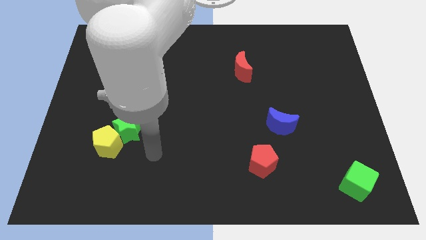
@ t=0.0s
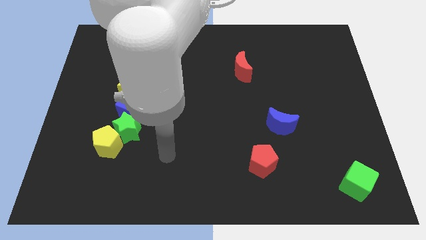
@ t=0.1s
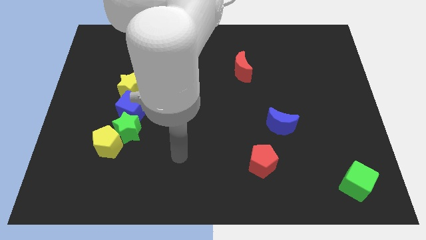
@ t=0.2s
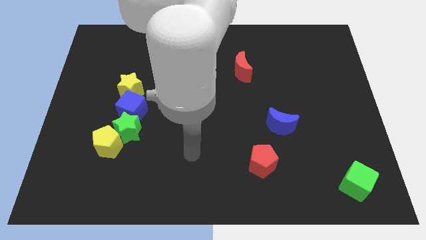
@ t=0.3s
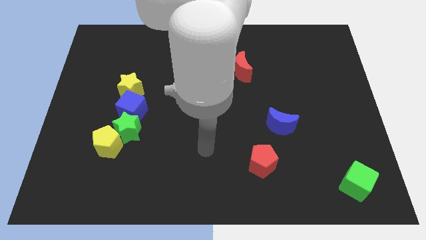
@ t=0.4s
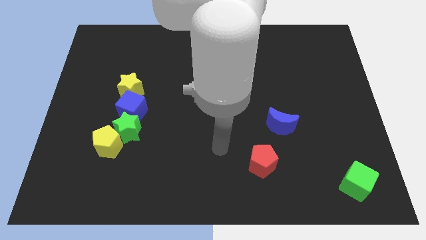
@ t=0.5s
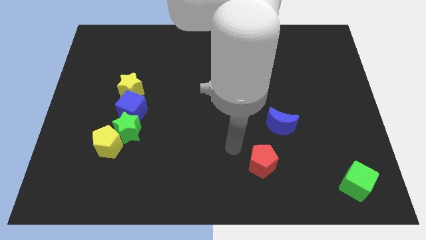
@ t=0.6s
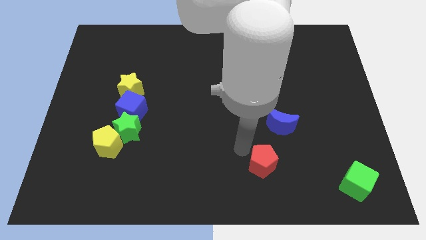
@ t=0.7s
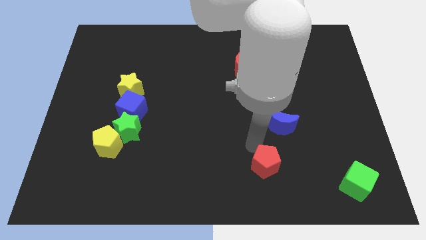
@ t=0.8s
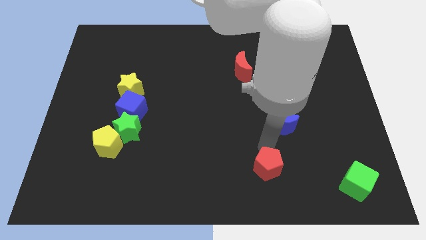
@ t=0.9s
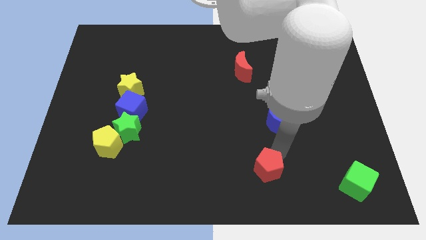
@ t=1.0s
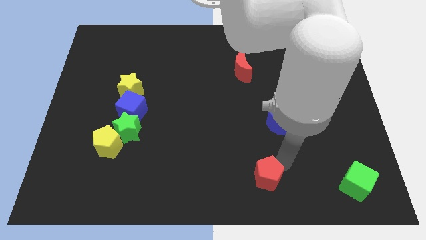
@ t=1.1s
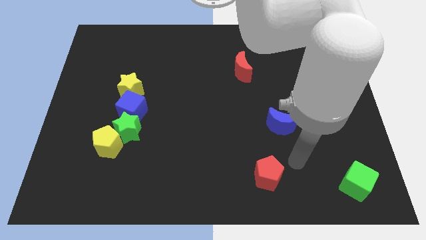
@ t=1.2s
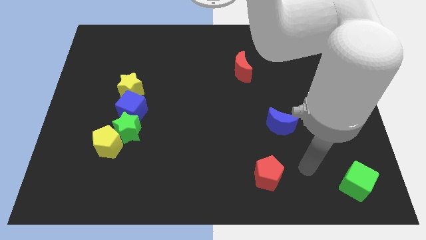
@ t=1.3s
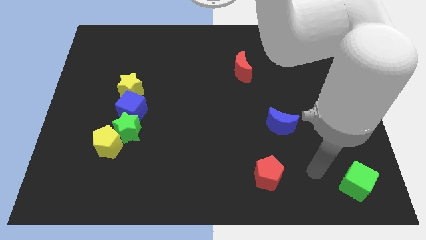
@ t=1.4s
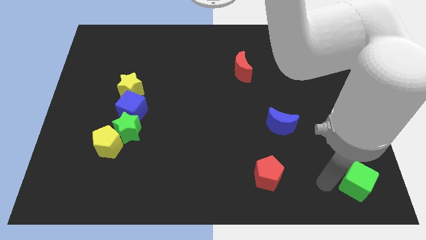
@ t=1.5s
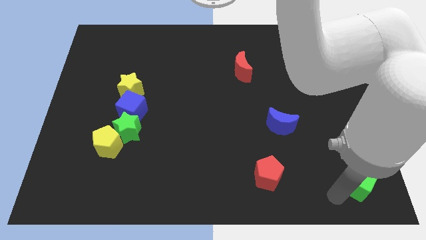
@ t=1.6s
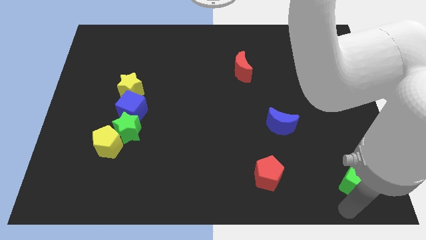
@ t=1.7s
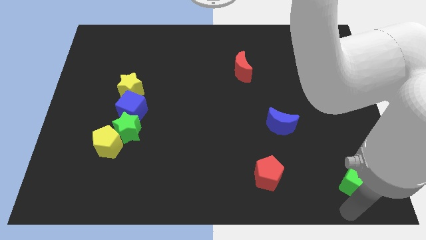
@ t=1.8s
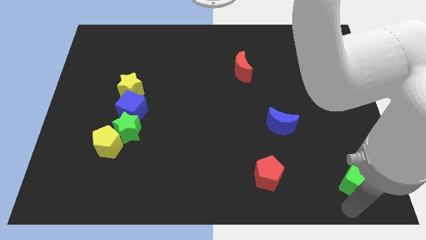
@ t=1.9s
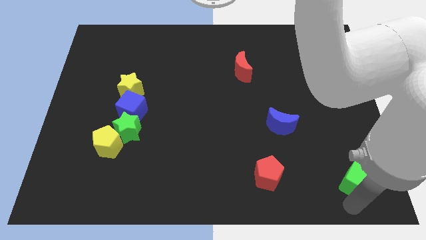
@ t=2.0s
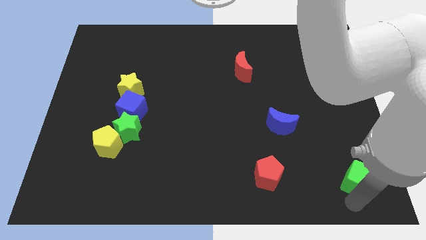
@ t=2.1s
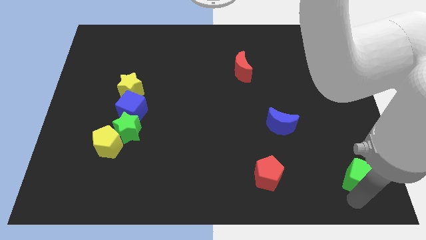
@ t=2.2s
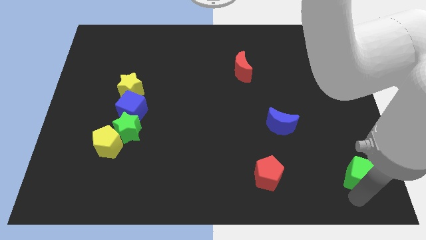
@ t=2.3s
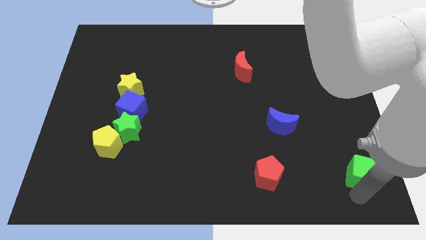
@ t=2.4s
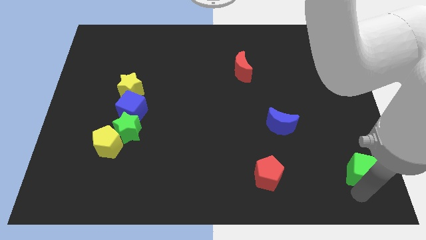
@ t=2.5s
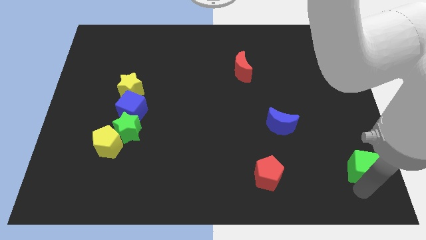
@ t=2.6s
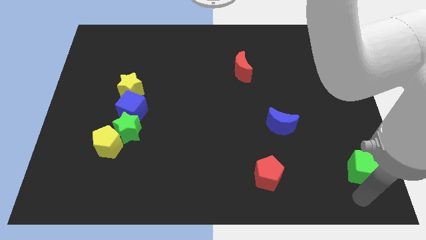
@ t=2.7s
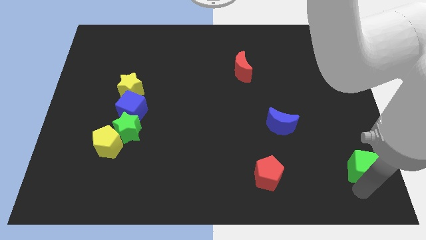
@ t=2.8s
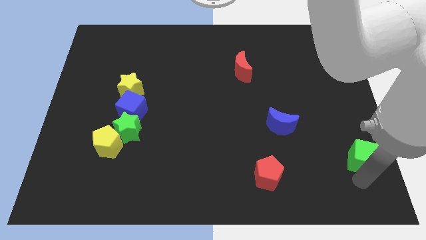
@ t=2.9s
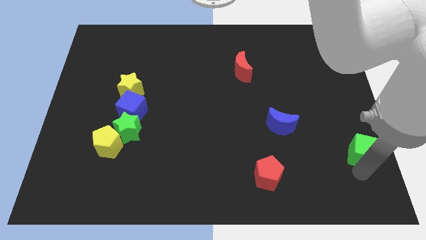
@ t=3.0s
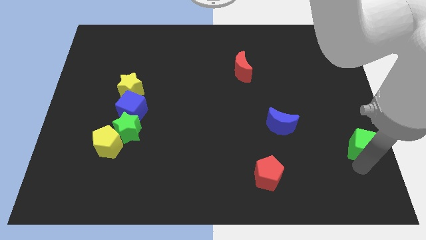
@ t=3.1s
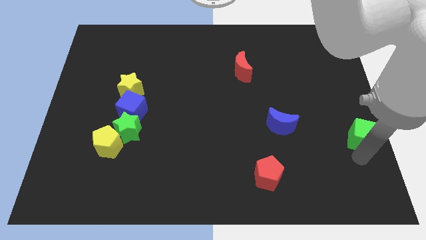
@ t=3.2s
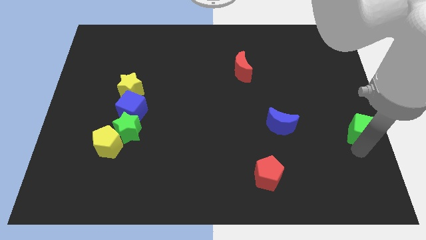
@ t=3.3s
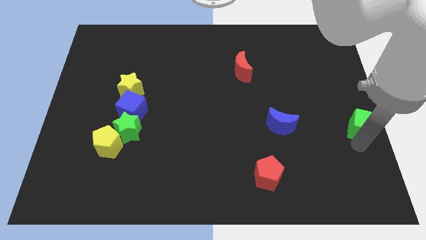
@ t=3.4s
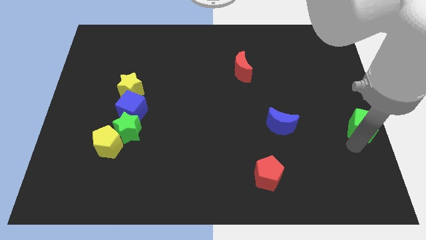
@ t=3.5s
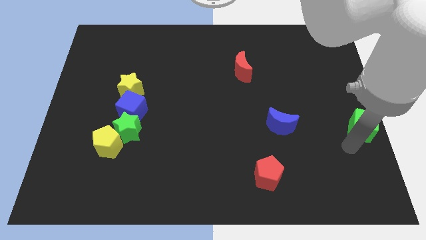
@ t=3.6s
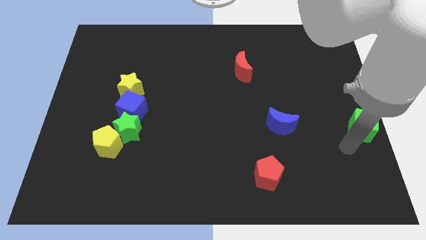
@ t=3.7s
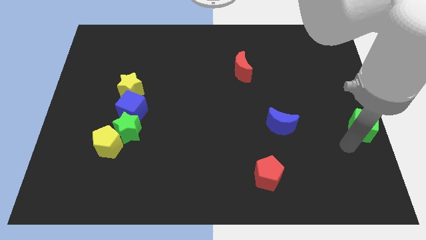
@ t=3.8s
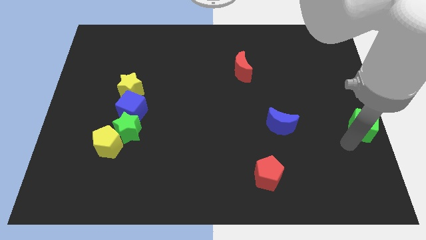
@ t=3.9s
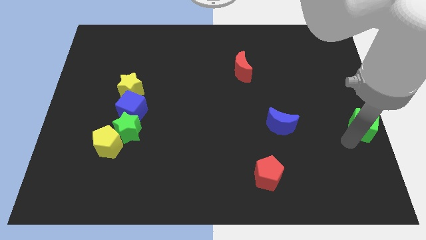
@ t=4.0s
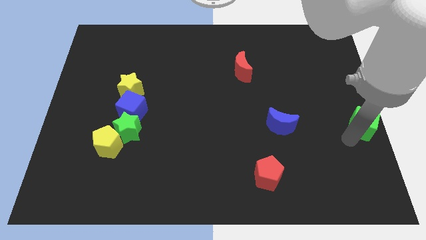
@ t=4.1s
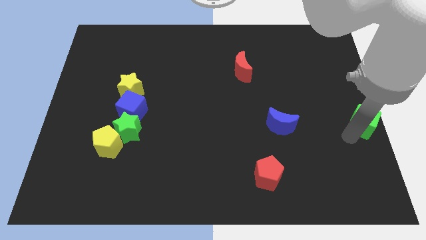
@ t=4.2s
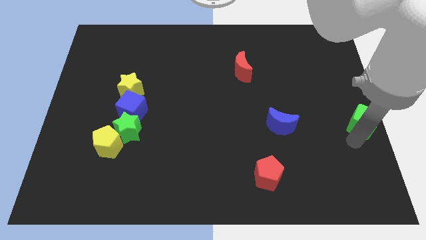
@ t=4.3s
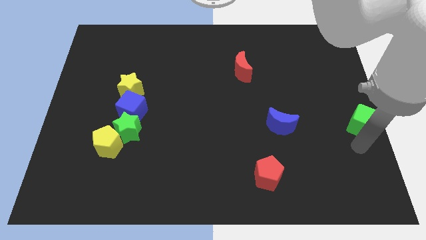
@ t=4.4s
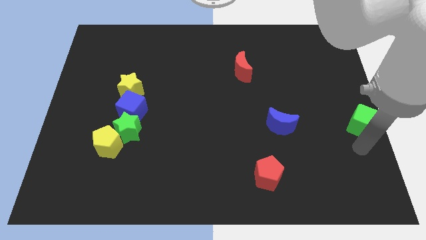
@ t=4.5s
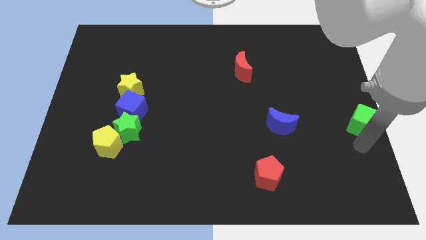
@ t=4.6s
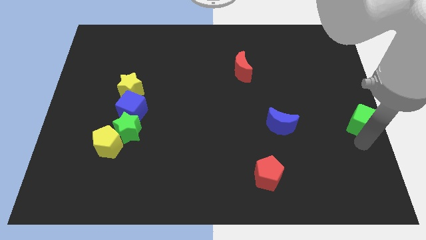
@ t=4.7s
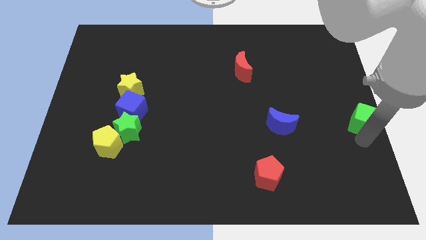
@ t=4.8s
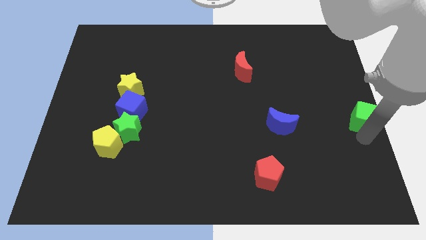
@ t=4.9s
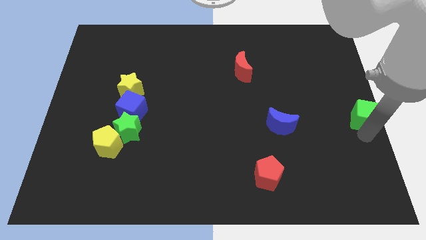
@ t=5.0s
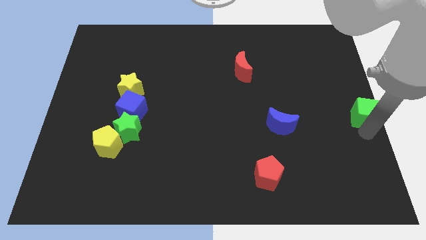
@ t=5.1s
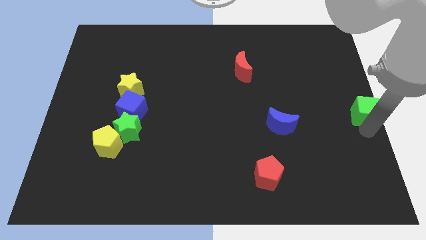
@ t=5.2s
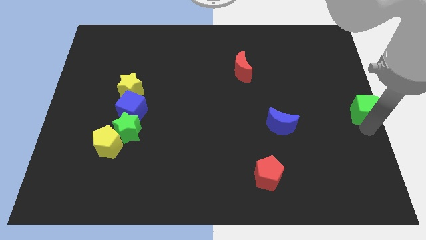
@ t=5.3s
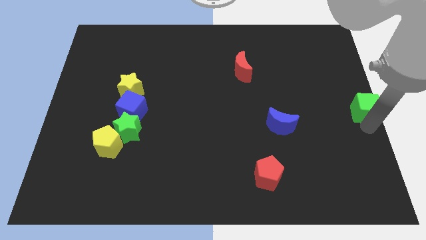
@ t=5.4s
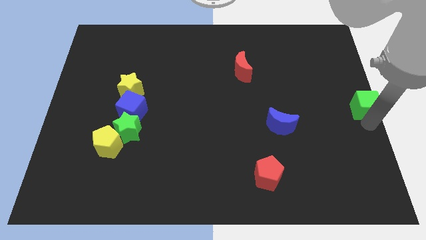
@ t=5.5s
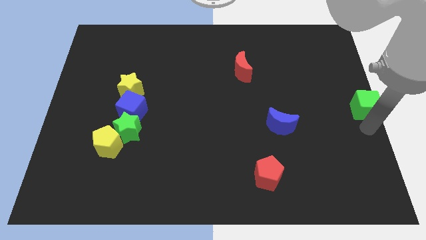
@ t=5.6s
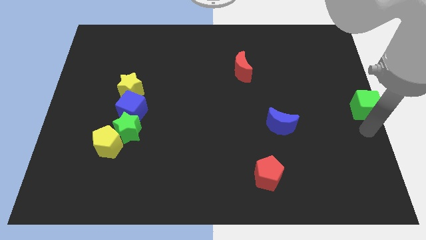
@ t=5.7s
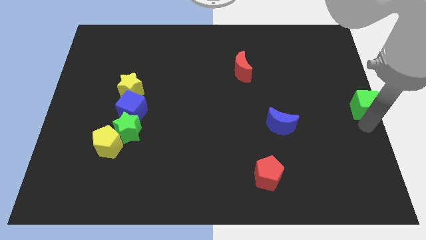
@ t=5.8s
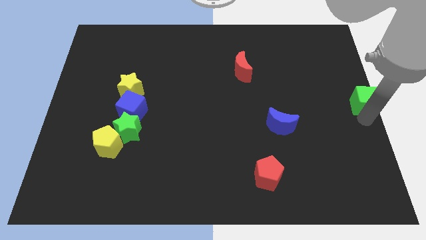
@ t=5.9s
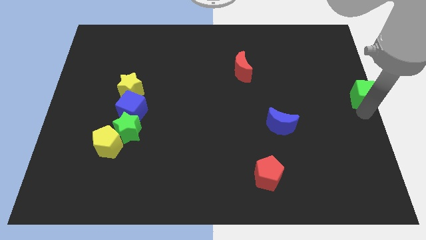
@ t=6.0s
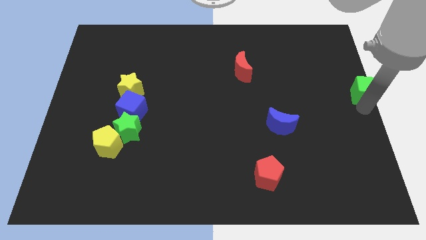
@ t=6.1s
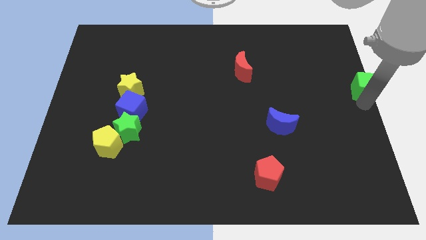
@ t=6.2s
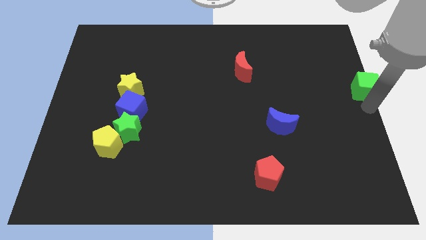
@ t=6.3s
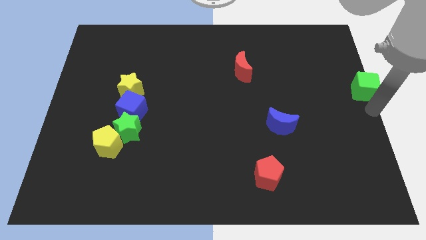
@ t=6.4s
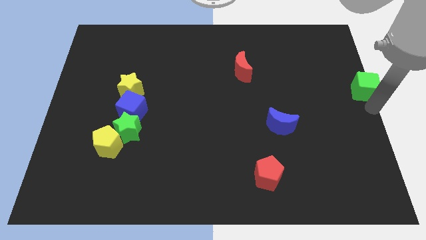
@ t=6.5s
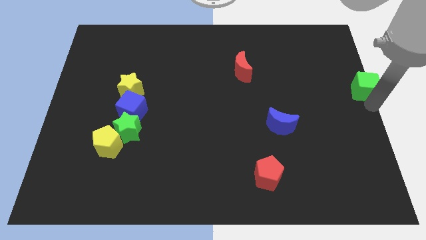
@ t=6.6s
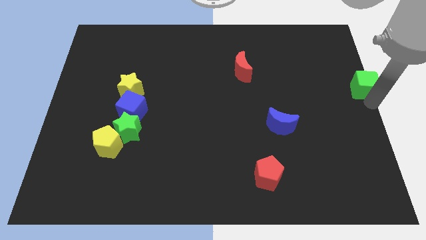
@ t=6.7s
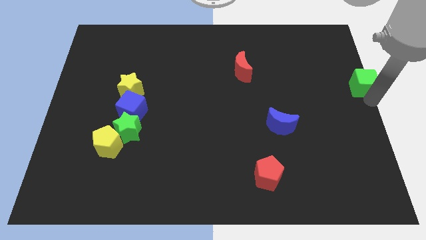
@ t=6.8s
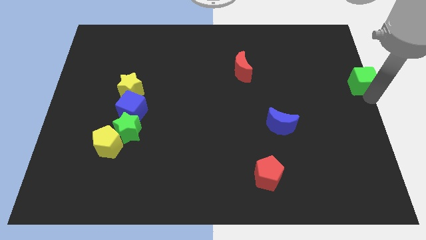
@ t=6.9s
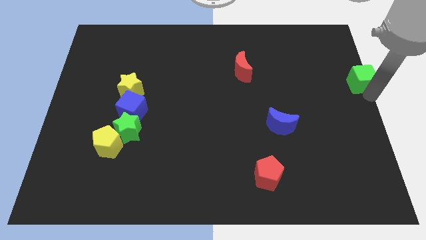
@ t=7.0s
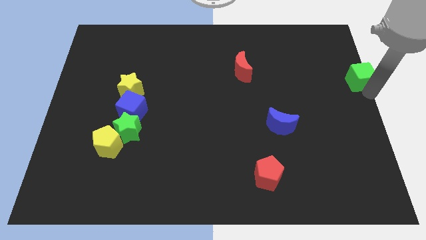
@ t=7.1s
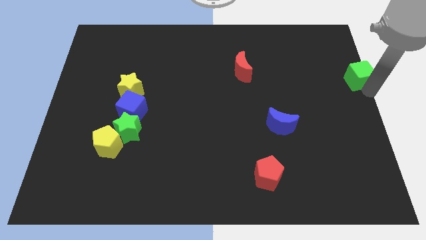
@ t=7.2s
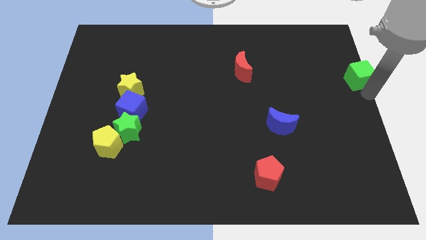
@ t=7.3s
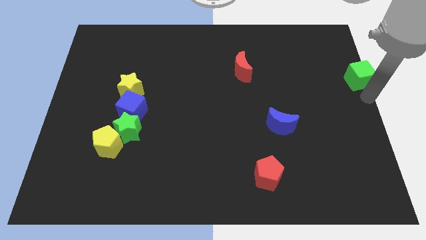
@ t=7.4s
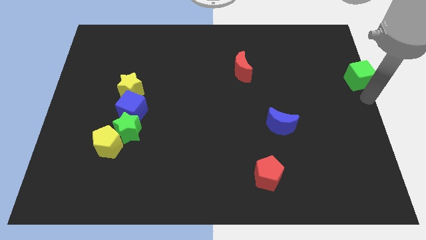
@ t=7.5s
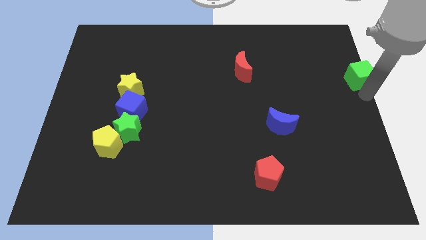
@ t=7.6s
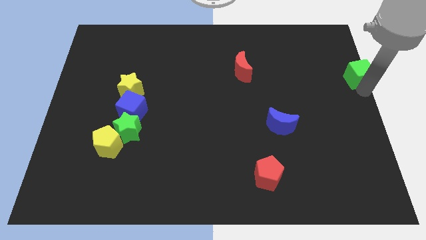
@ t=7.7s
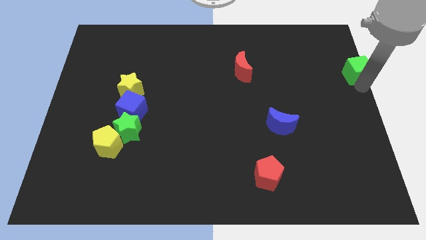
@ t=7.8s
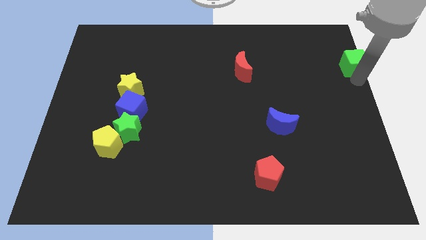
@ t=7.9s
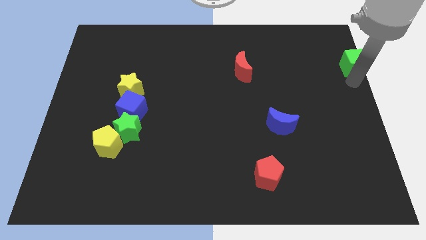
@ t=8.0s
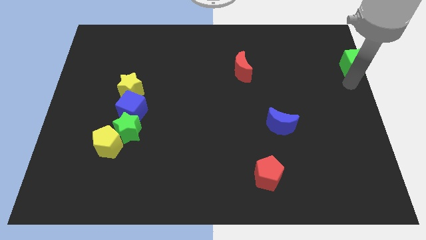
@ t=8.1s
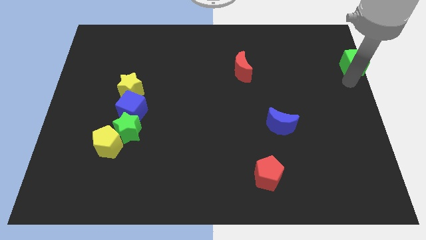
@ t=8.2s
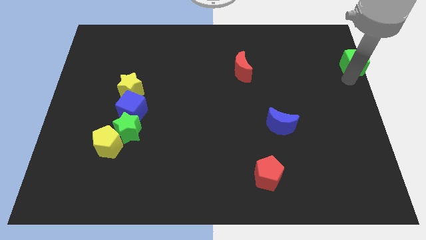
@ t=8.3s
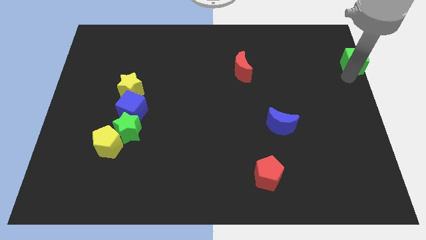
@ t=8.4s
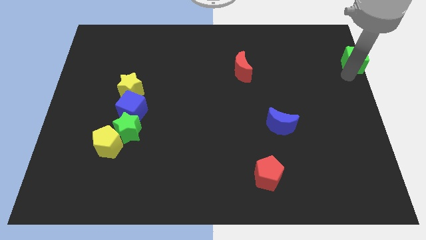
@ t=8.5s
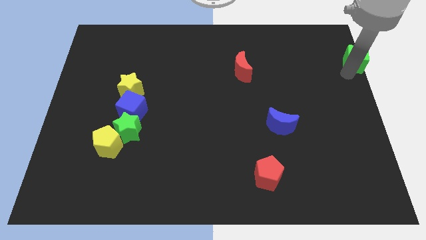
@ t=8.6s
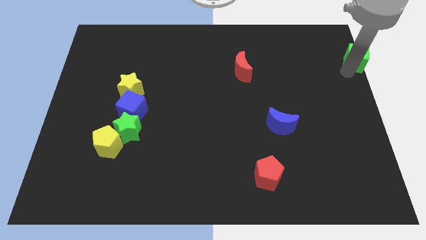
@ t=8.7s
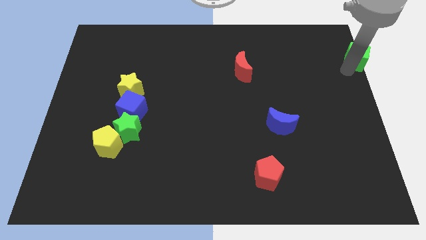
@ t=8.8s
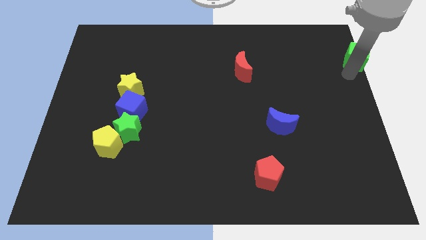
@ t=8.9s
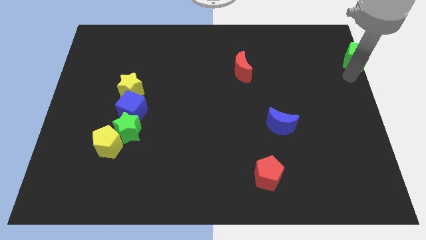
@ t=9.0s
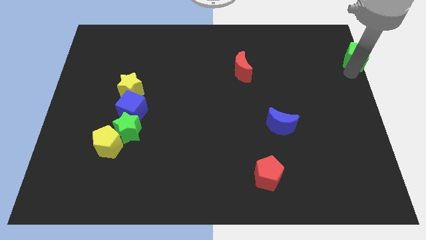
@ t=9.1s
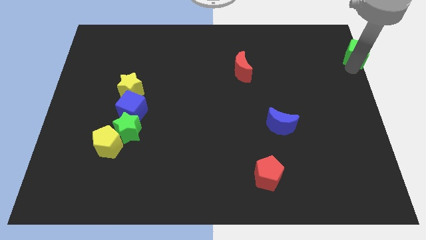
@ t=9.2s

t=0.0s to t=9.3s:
move the green cube to the top right corner
